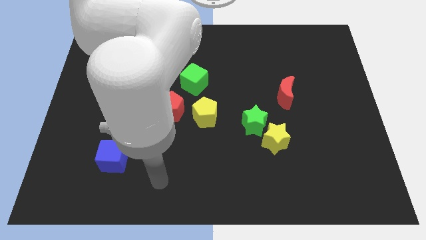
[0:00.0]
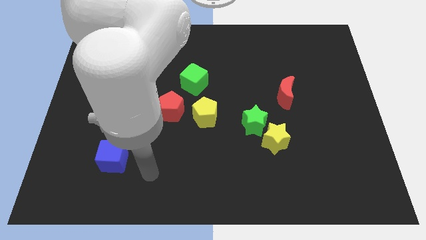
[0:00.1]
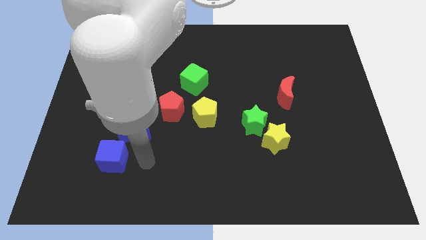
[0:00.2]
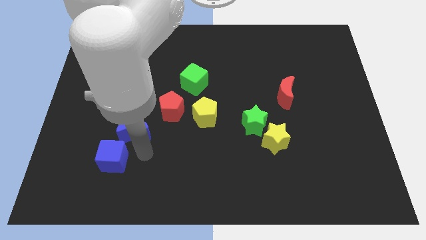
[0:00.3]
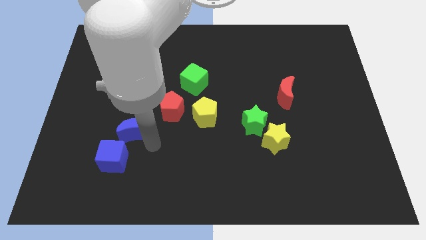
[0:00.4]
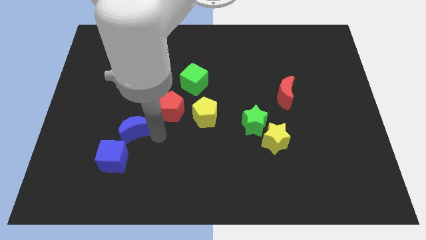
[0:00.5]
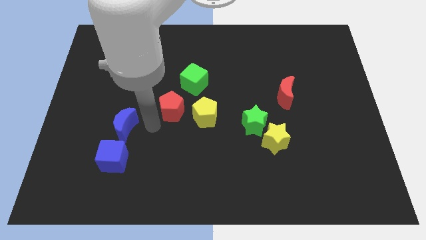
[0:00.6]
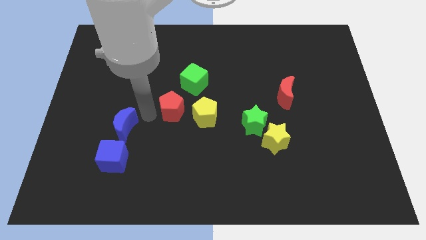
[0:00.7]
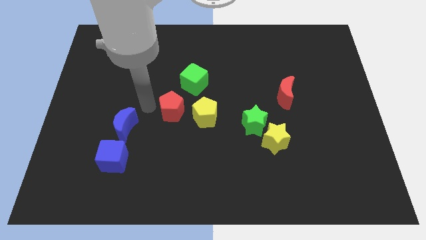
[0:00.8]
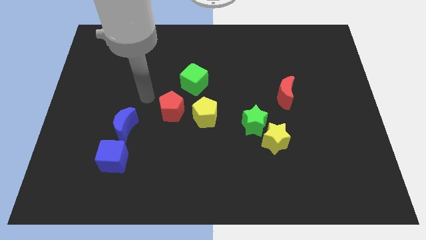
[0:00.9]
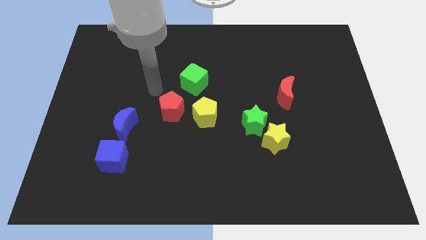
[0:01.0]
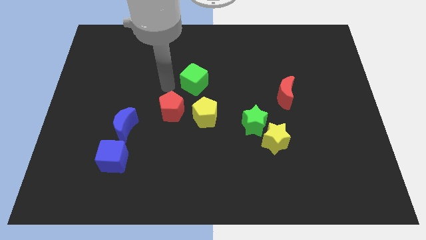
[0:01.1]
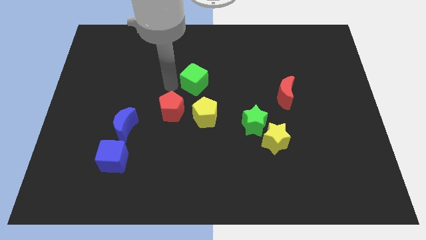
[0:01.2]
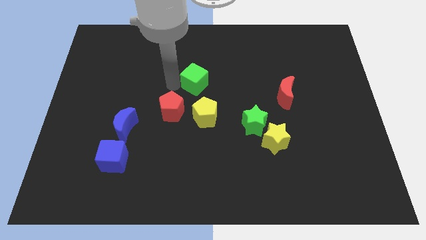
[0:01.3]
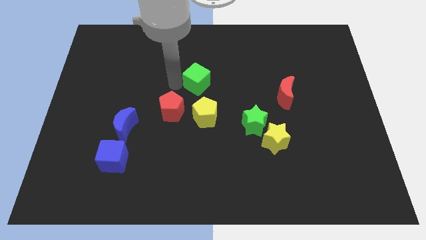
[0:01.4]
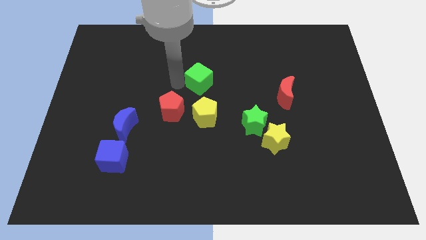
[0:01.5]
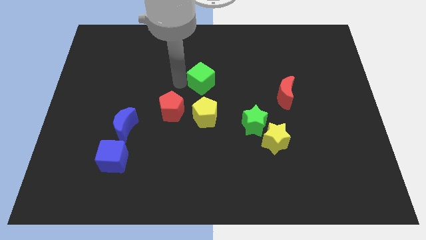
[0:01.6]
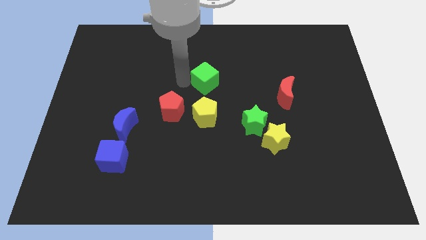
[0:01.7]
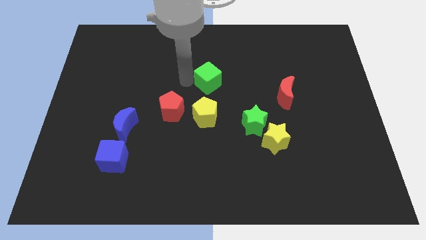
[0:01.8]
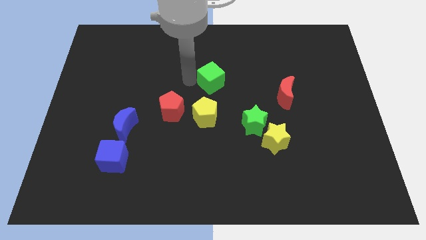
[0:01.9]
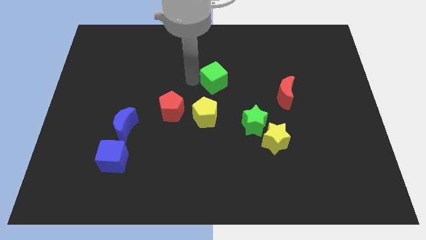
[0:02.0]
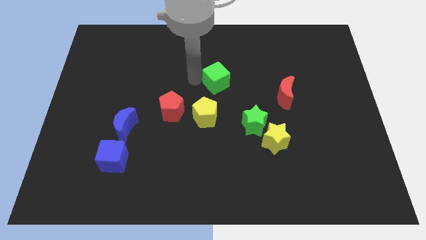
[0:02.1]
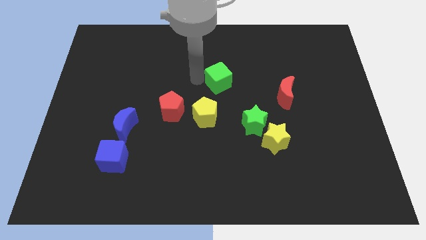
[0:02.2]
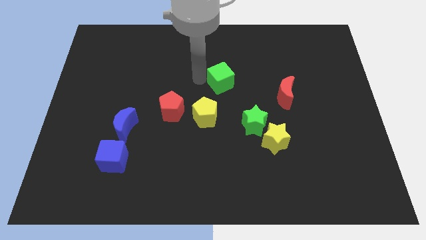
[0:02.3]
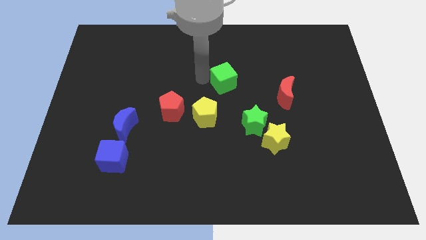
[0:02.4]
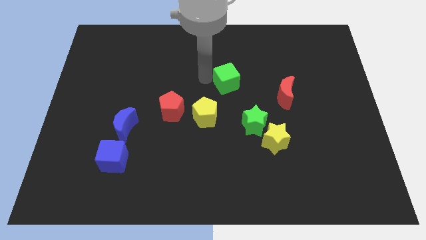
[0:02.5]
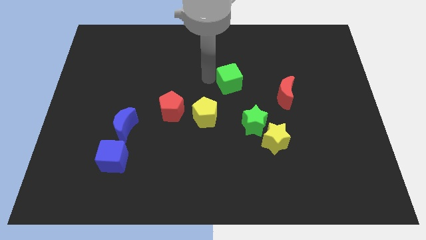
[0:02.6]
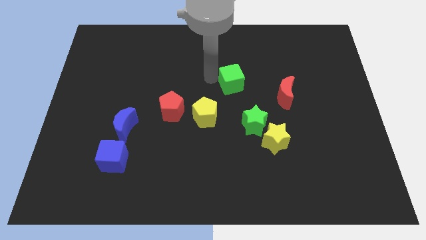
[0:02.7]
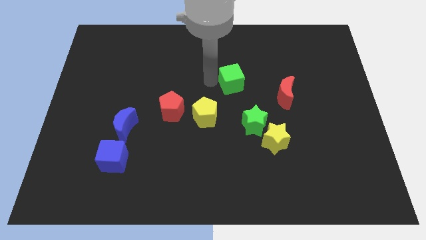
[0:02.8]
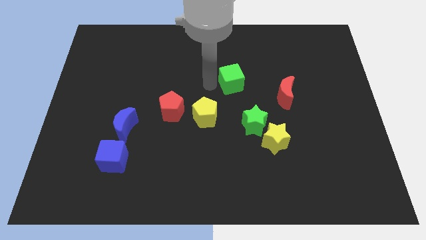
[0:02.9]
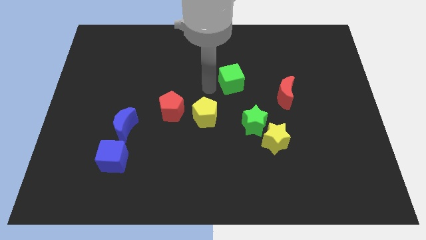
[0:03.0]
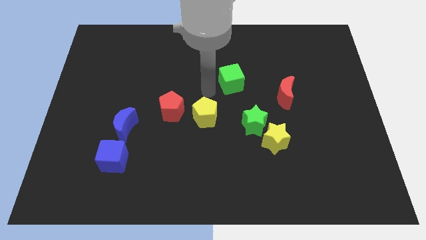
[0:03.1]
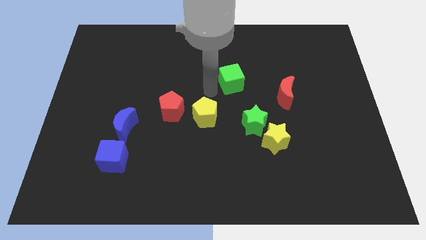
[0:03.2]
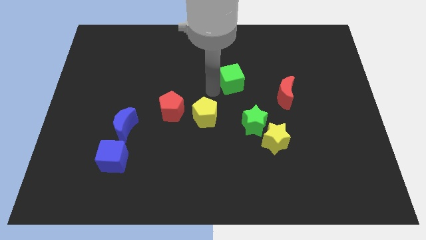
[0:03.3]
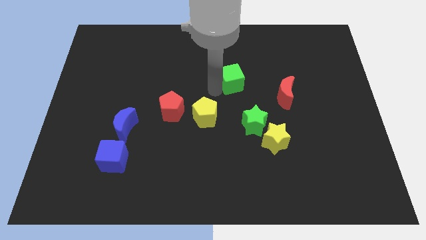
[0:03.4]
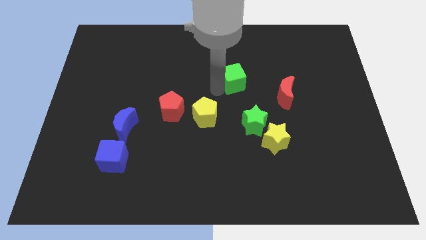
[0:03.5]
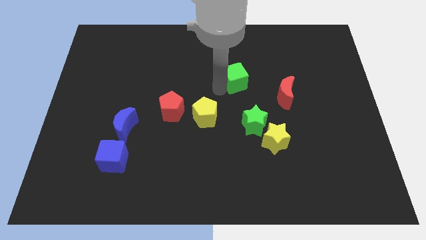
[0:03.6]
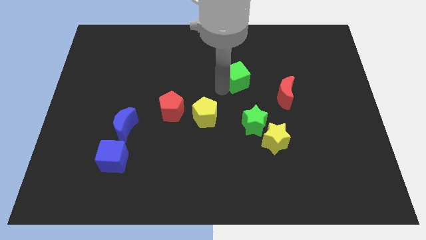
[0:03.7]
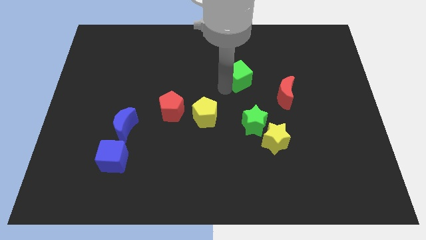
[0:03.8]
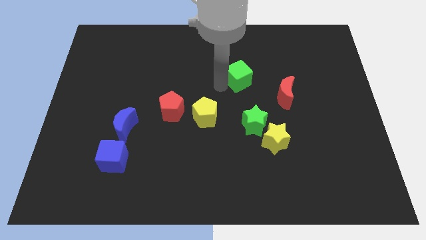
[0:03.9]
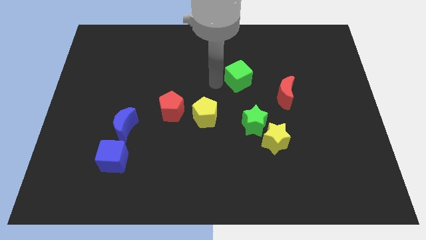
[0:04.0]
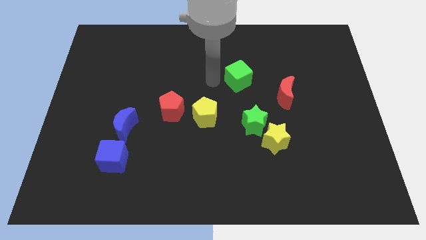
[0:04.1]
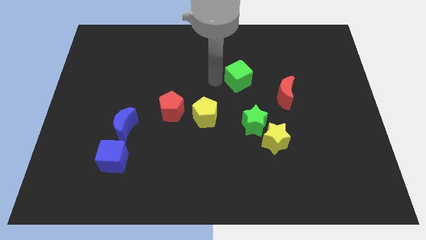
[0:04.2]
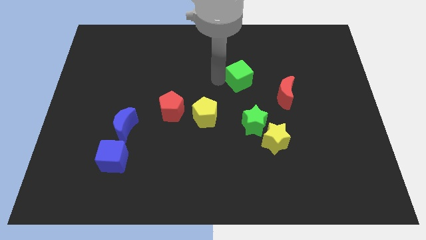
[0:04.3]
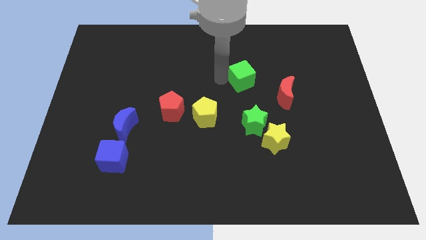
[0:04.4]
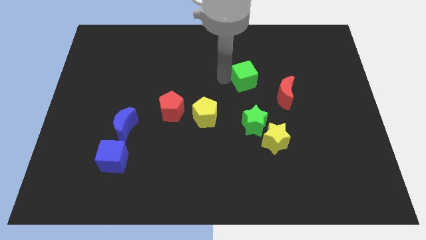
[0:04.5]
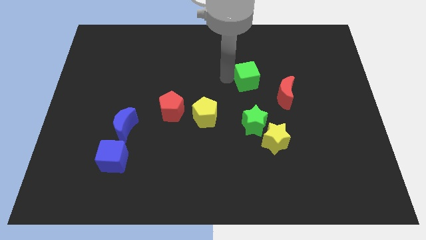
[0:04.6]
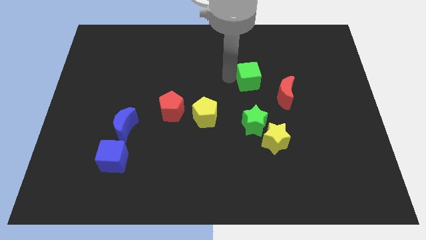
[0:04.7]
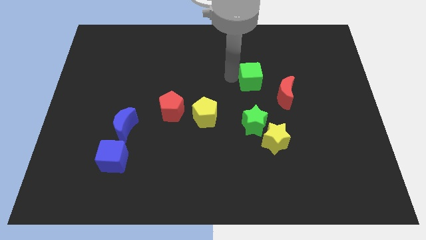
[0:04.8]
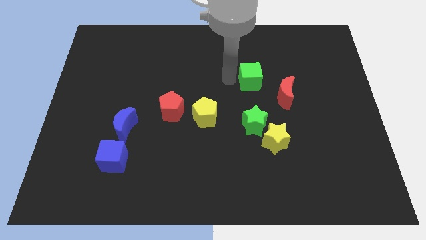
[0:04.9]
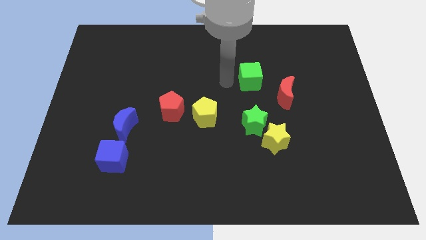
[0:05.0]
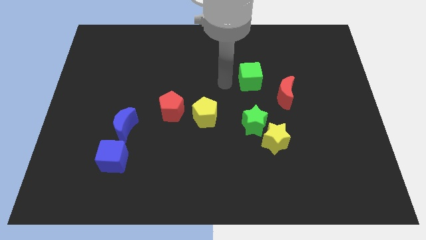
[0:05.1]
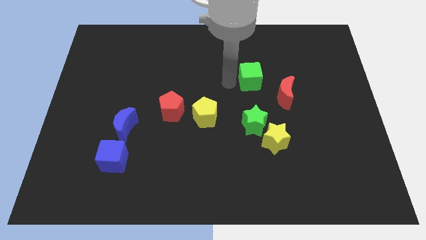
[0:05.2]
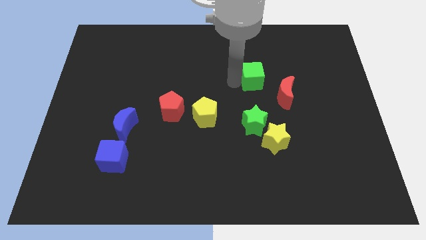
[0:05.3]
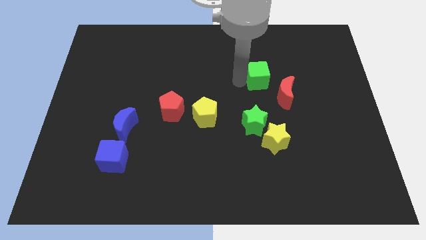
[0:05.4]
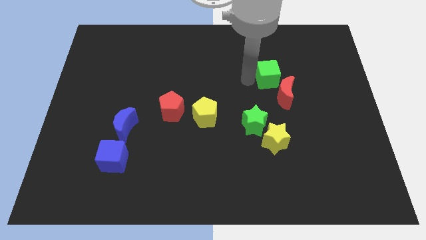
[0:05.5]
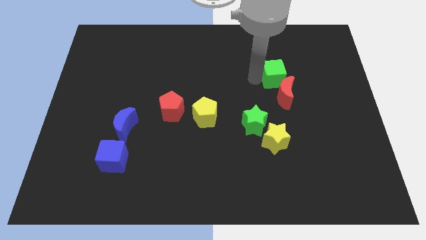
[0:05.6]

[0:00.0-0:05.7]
move the green cube right

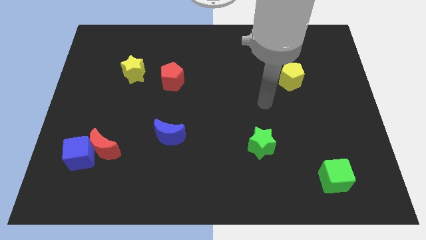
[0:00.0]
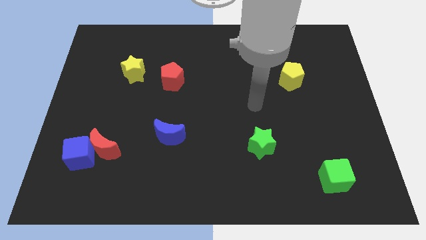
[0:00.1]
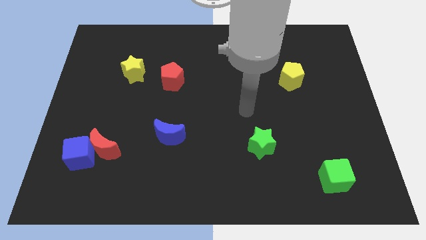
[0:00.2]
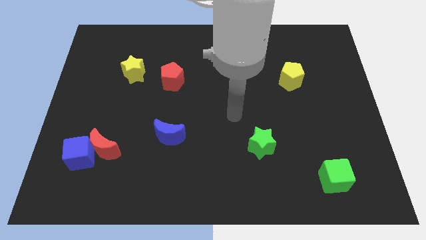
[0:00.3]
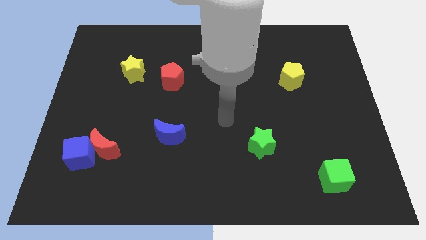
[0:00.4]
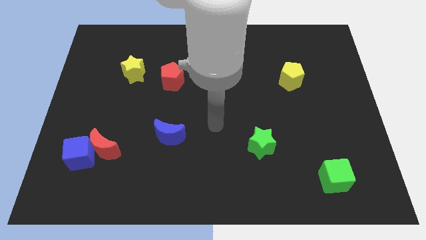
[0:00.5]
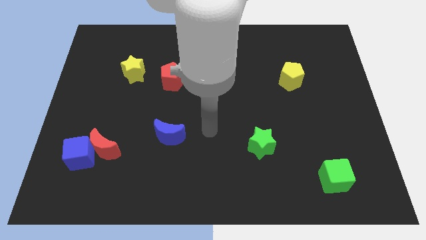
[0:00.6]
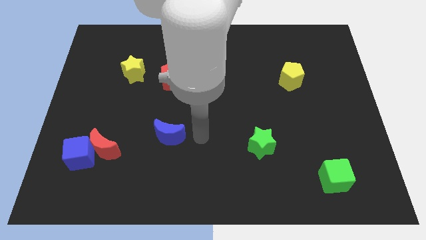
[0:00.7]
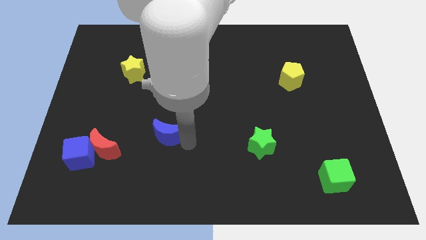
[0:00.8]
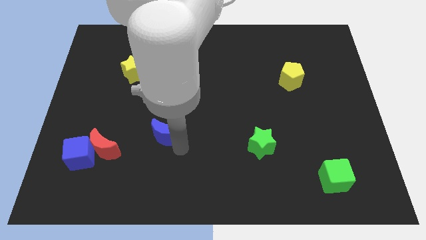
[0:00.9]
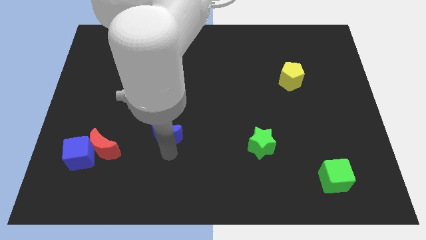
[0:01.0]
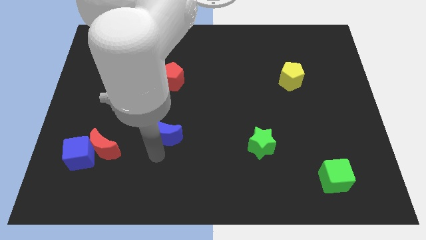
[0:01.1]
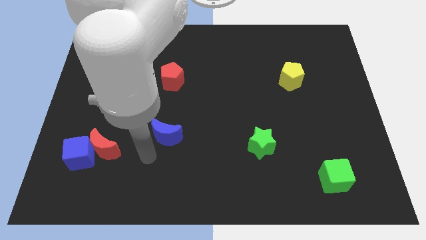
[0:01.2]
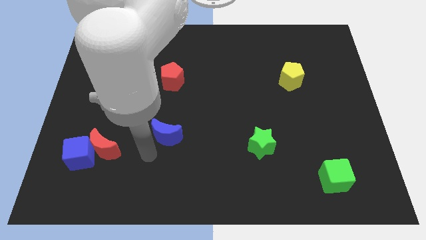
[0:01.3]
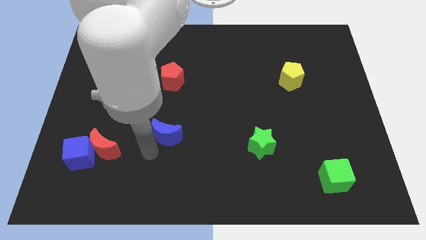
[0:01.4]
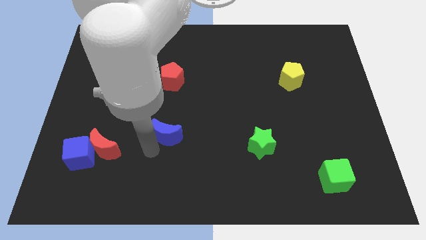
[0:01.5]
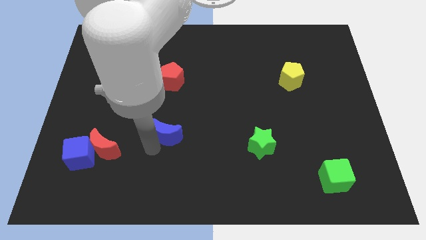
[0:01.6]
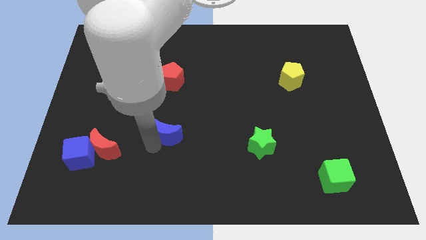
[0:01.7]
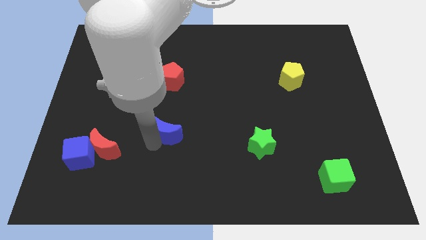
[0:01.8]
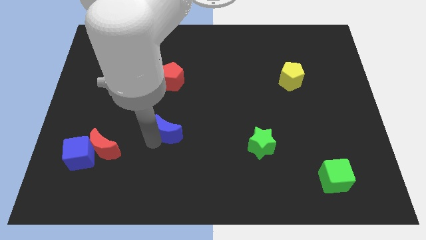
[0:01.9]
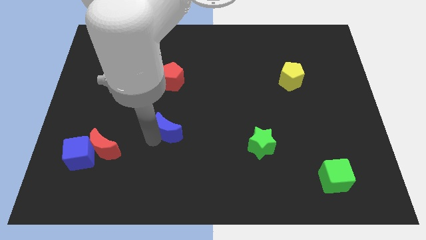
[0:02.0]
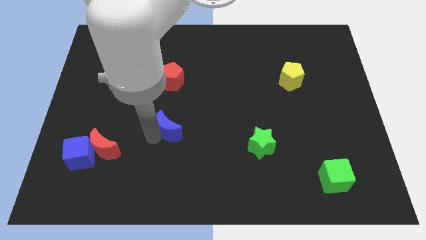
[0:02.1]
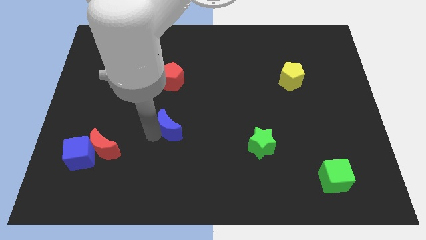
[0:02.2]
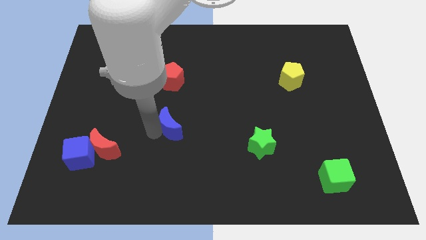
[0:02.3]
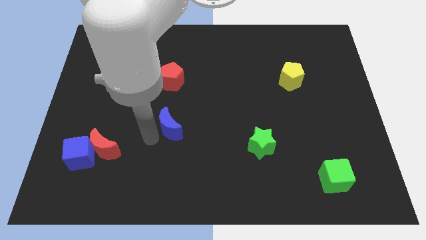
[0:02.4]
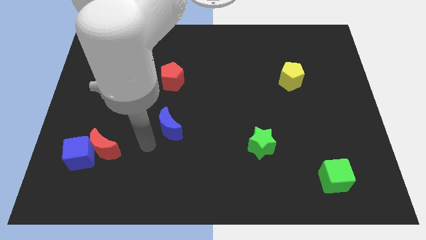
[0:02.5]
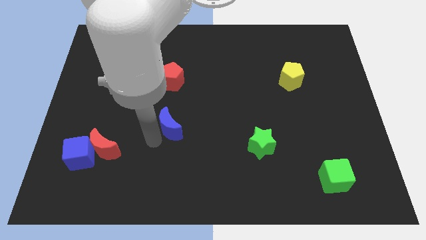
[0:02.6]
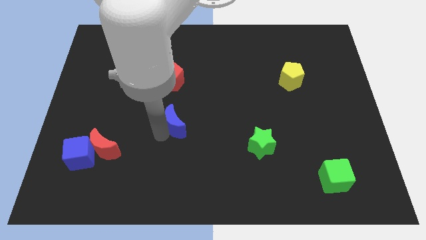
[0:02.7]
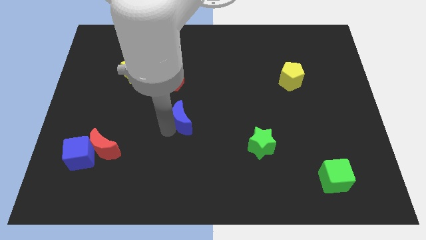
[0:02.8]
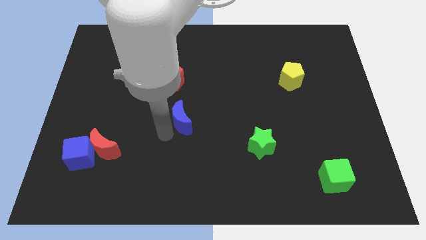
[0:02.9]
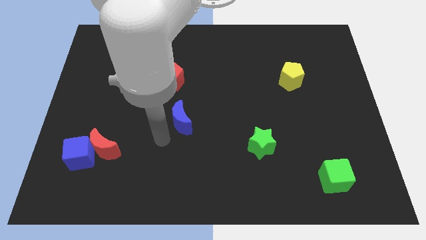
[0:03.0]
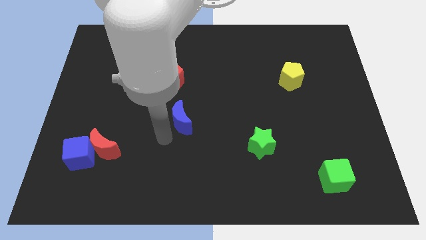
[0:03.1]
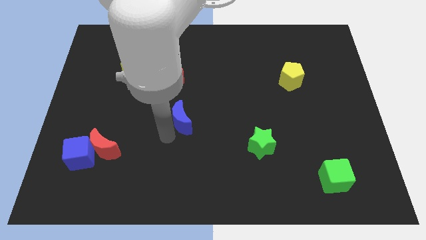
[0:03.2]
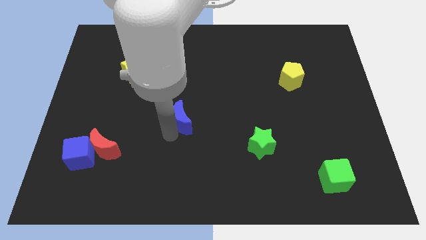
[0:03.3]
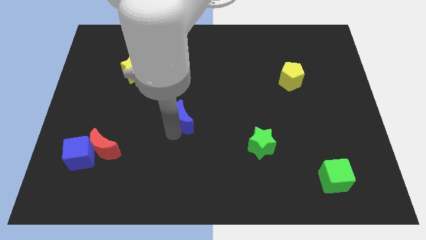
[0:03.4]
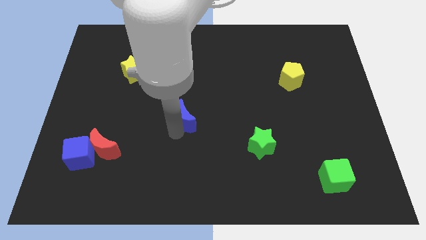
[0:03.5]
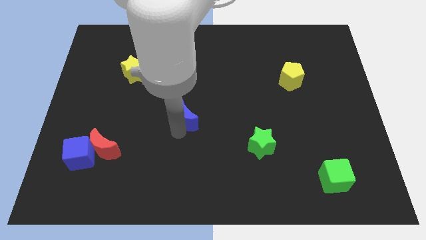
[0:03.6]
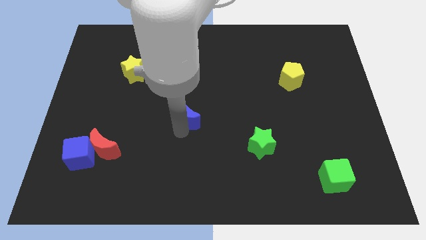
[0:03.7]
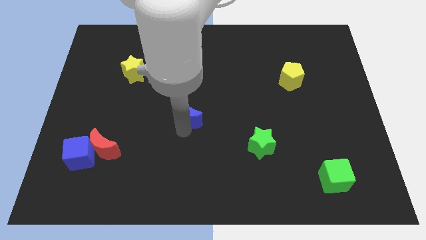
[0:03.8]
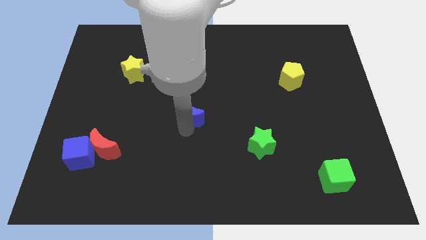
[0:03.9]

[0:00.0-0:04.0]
slightly move the blue moon diagonally up and to the right
